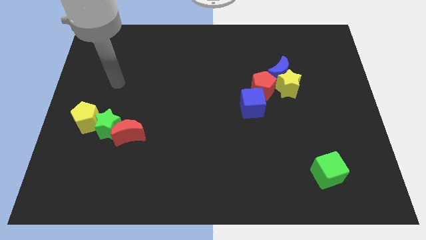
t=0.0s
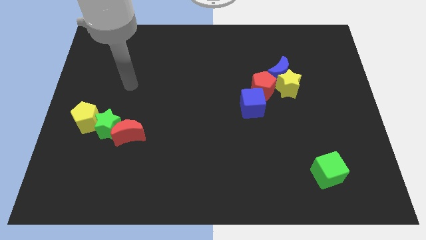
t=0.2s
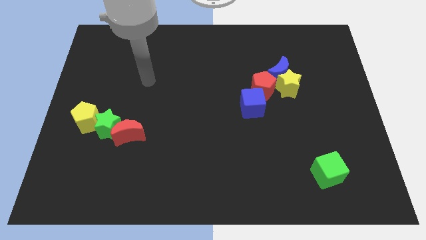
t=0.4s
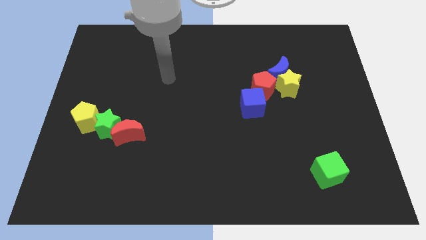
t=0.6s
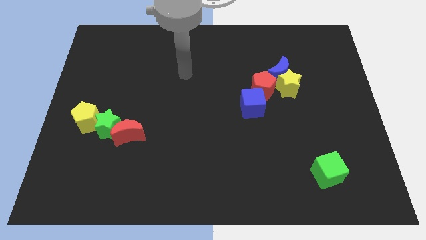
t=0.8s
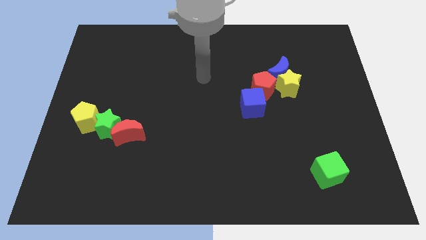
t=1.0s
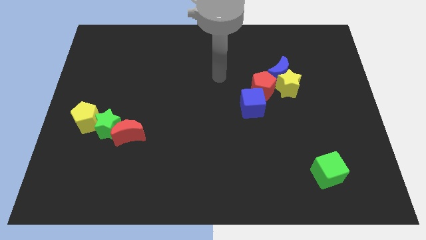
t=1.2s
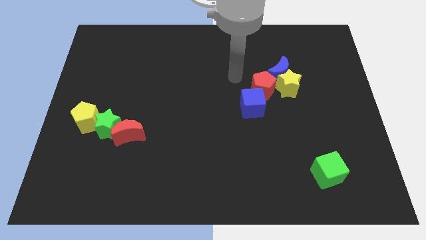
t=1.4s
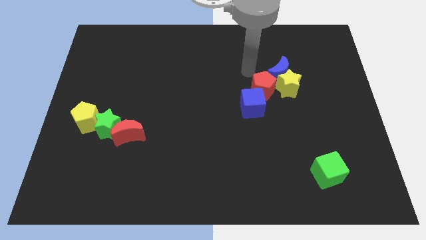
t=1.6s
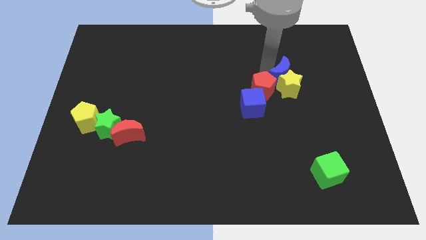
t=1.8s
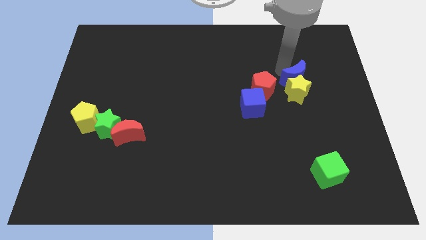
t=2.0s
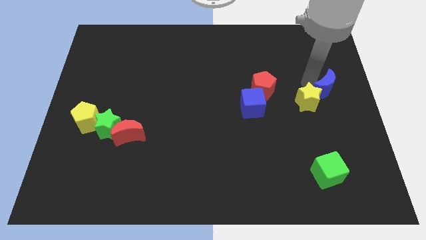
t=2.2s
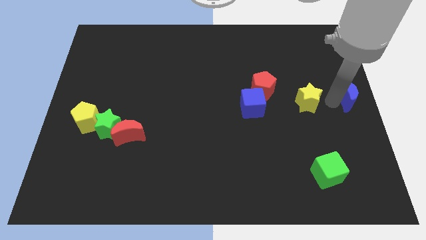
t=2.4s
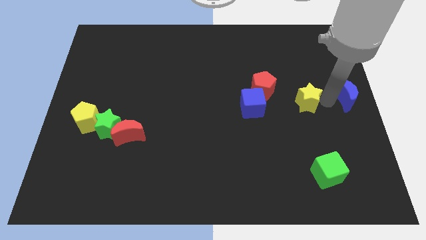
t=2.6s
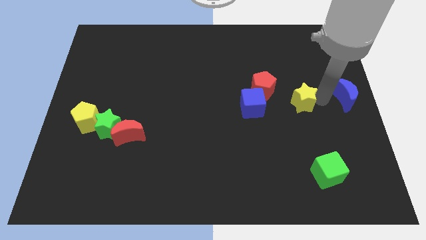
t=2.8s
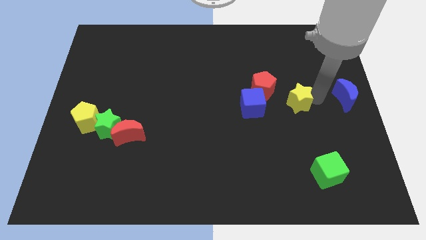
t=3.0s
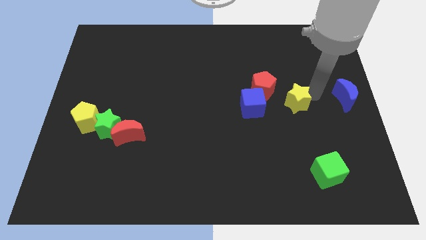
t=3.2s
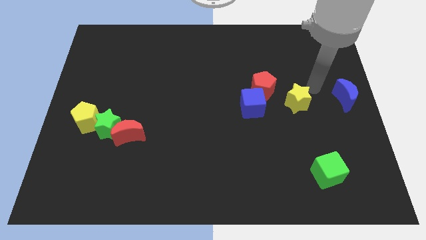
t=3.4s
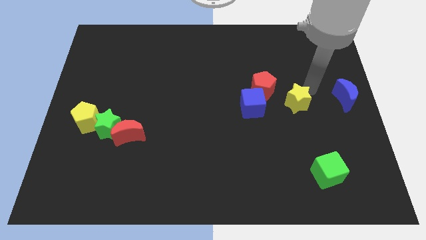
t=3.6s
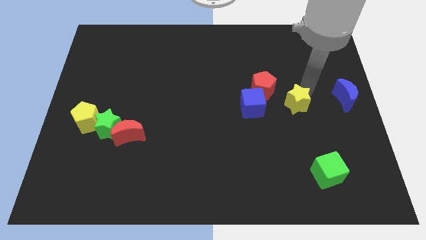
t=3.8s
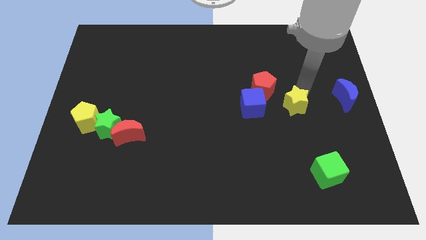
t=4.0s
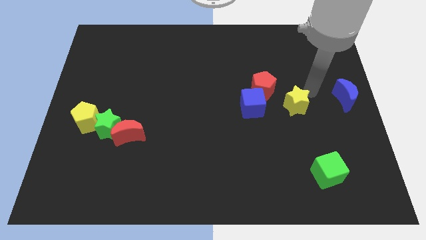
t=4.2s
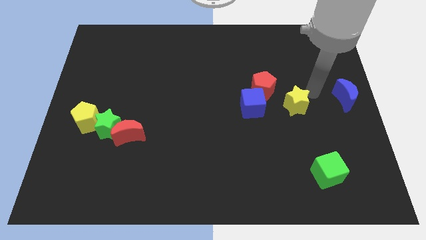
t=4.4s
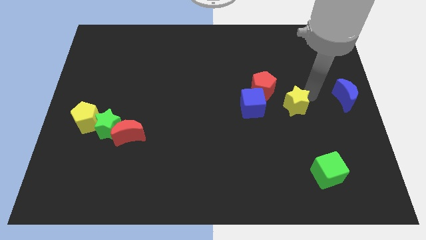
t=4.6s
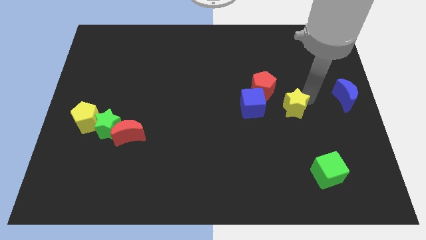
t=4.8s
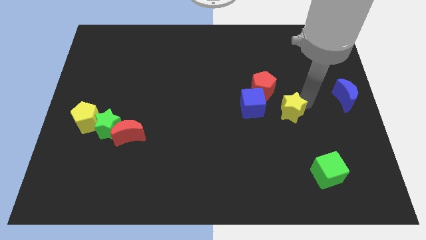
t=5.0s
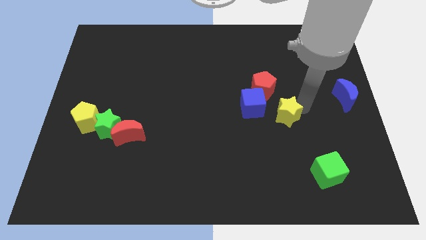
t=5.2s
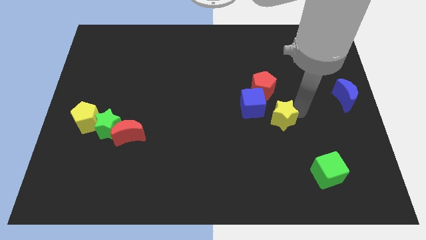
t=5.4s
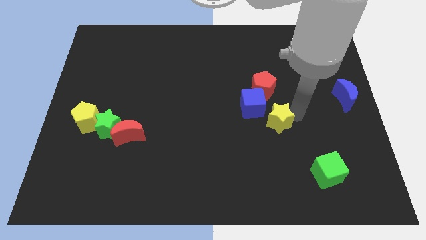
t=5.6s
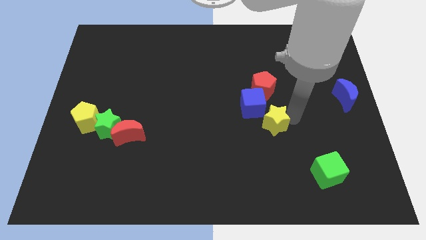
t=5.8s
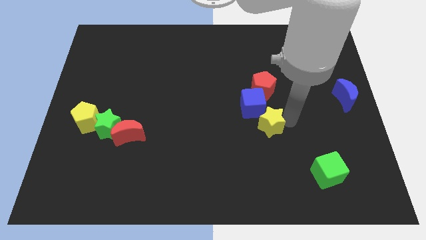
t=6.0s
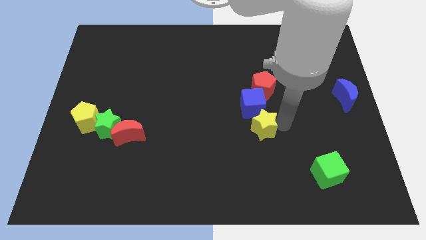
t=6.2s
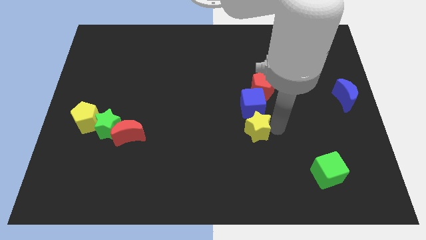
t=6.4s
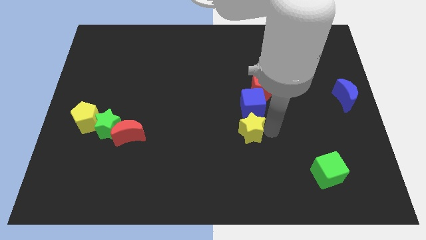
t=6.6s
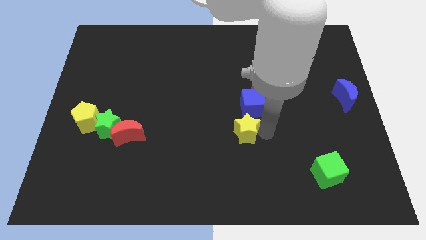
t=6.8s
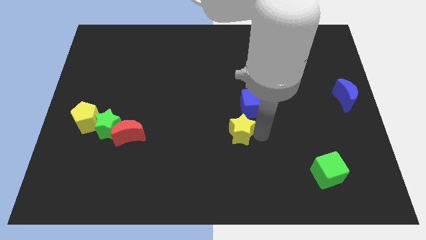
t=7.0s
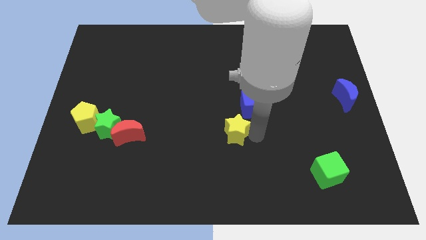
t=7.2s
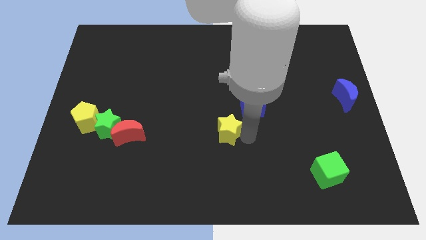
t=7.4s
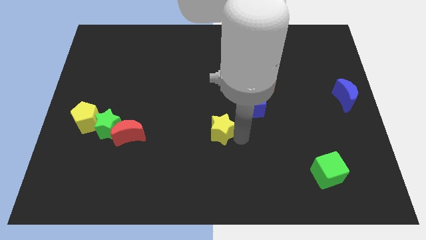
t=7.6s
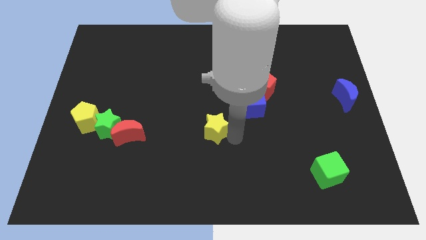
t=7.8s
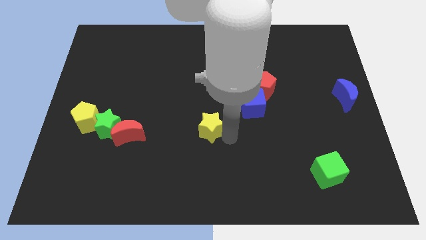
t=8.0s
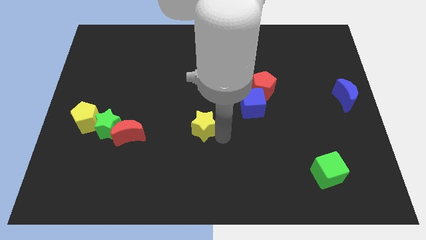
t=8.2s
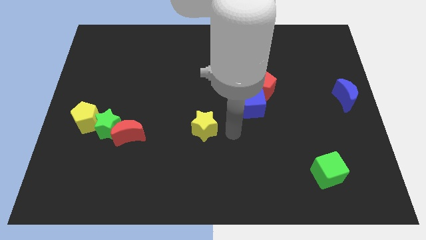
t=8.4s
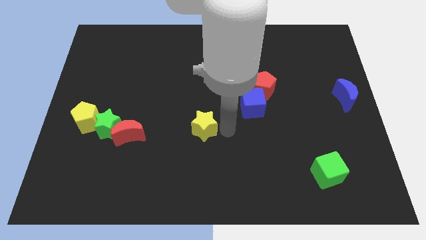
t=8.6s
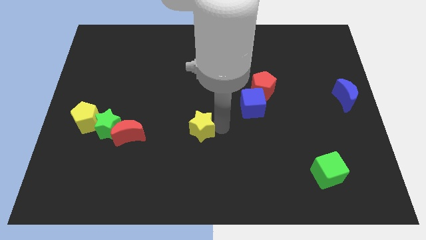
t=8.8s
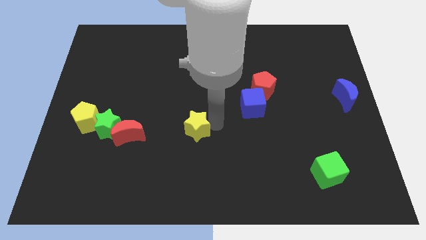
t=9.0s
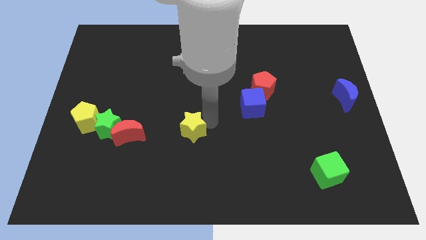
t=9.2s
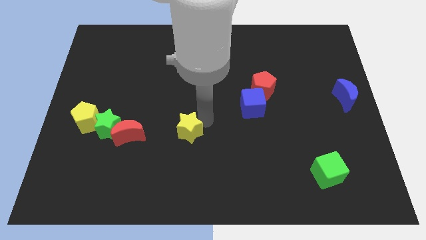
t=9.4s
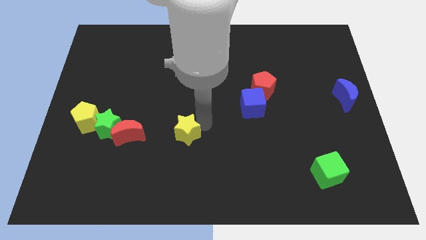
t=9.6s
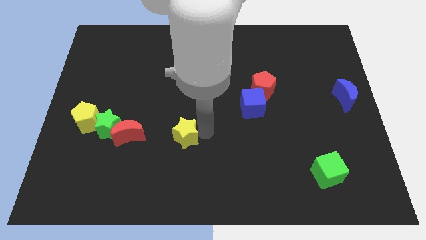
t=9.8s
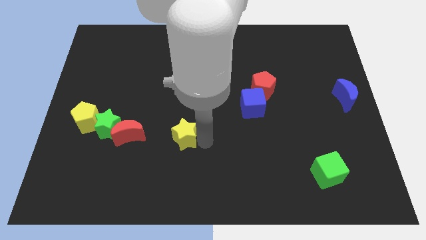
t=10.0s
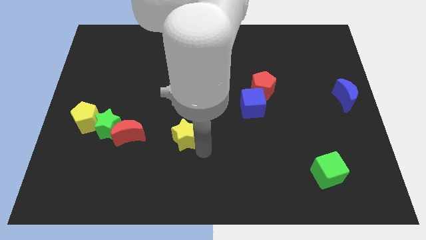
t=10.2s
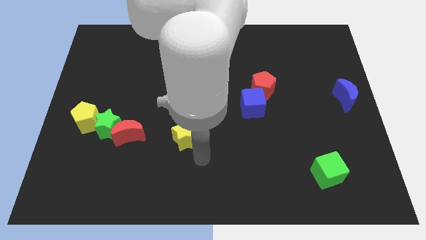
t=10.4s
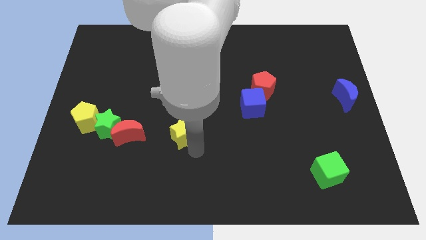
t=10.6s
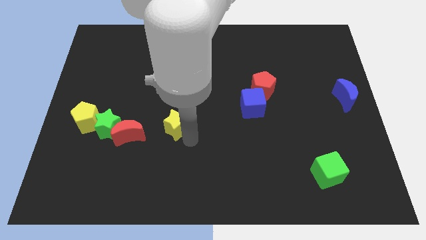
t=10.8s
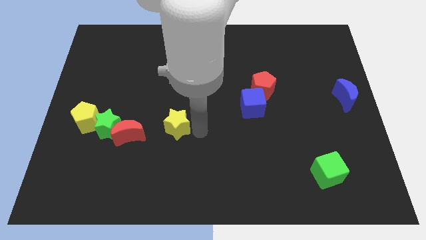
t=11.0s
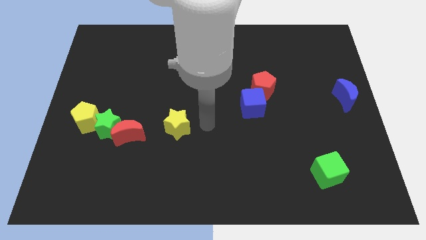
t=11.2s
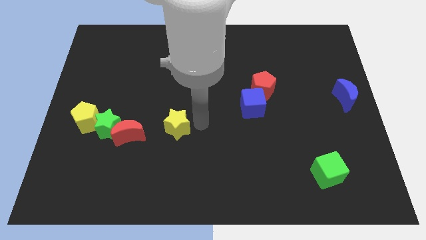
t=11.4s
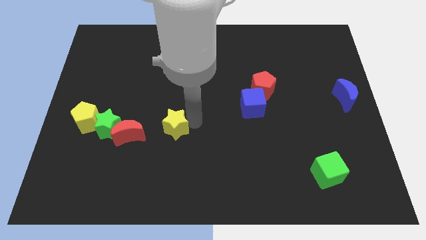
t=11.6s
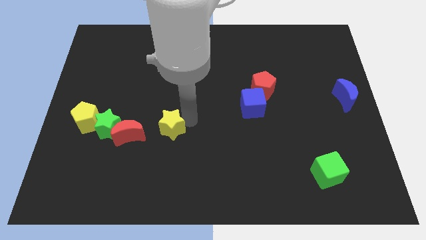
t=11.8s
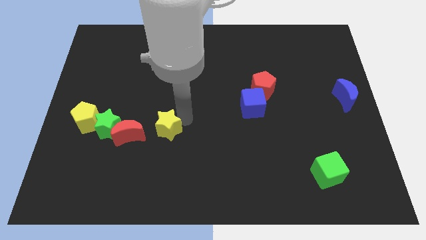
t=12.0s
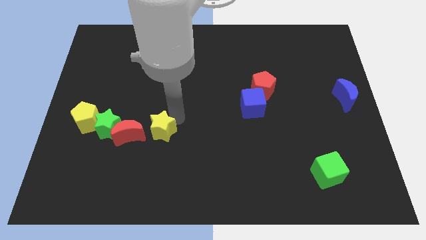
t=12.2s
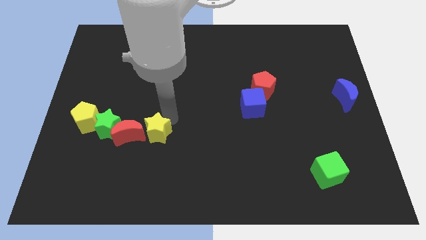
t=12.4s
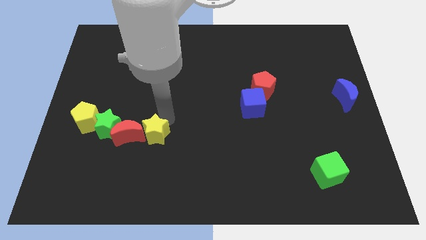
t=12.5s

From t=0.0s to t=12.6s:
push the yellow star close to the red moon
